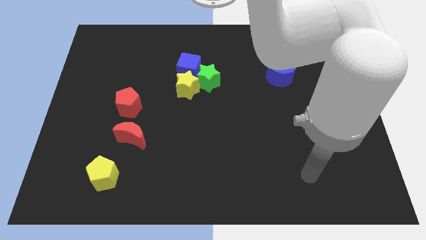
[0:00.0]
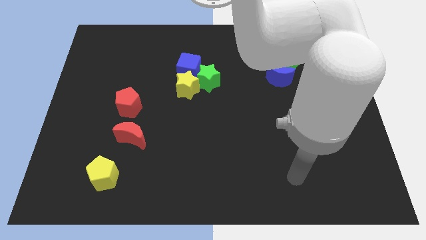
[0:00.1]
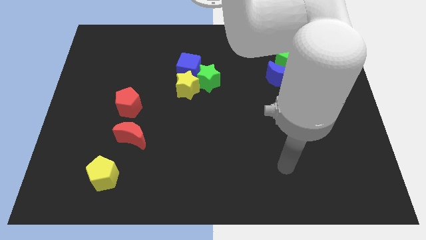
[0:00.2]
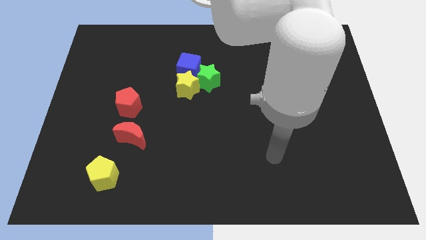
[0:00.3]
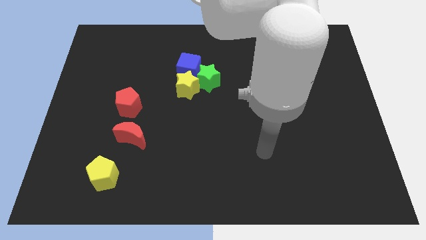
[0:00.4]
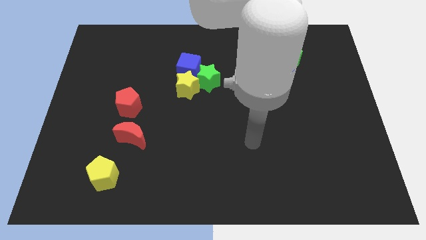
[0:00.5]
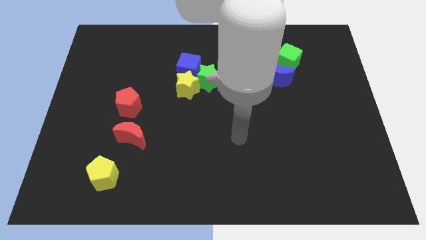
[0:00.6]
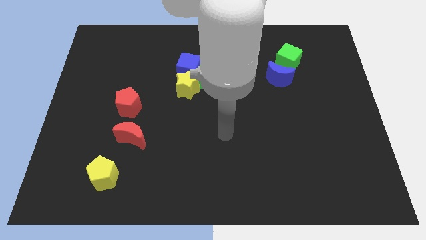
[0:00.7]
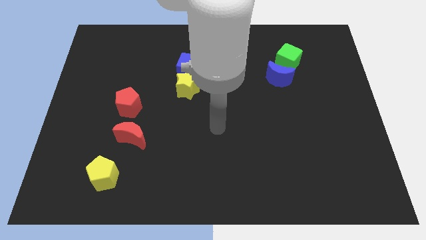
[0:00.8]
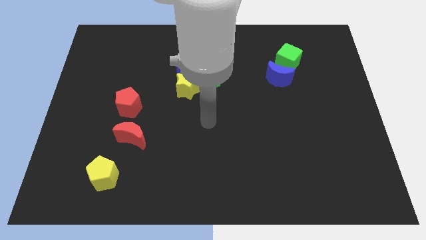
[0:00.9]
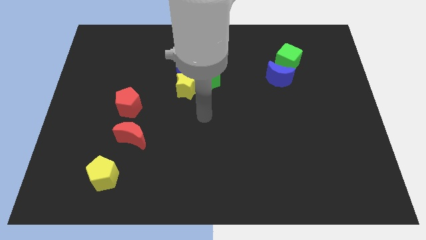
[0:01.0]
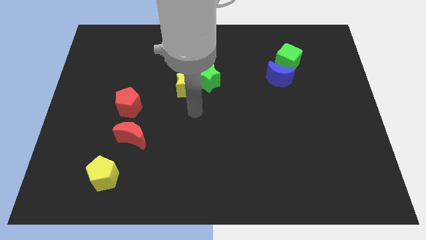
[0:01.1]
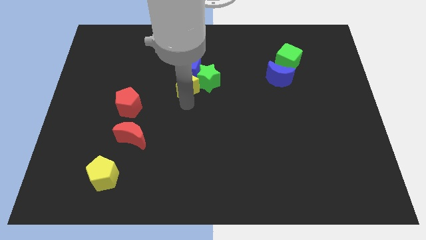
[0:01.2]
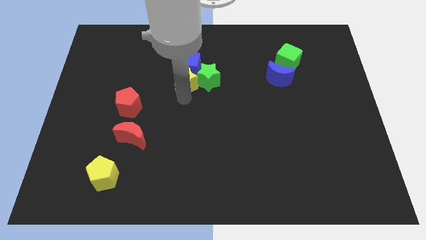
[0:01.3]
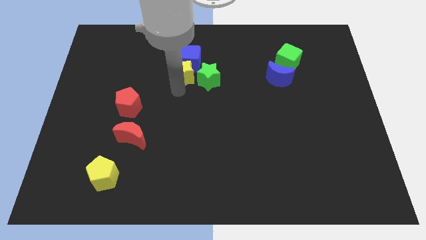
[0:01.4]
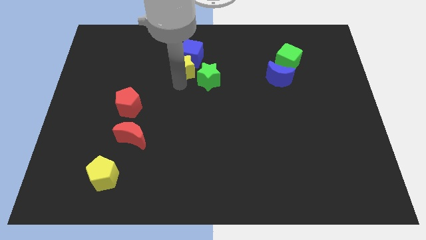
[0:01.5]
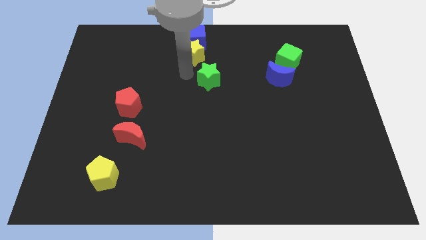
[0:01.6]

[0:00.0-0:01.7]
pull the green star apart from the yellow star and blue cube

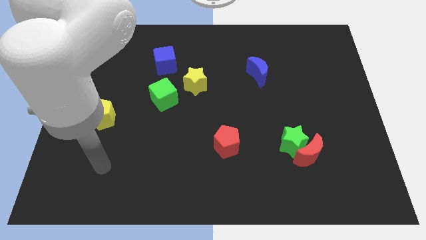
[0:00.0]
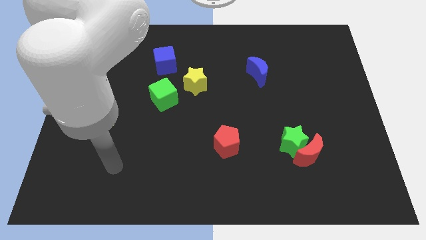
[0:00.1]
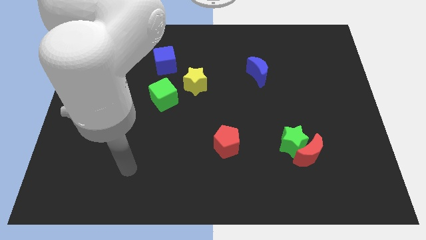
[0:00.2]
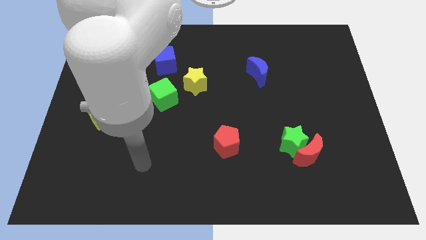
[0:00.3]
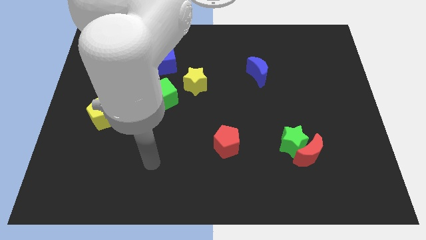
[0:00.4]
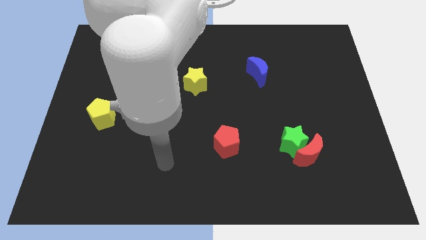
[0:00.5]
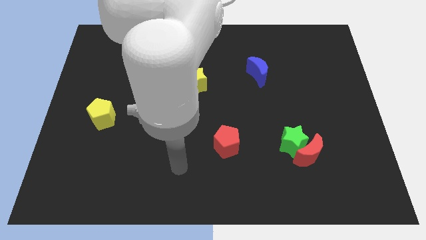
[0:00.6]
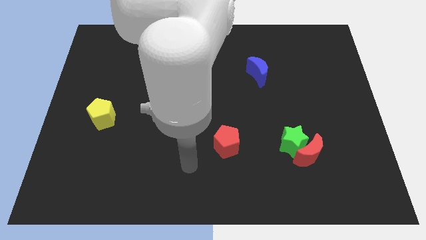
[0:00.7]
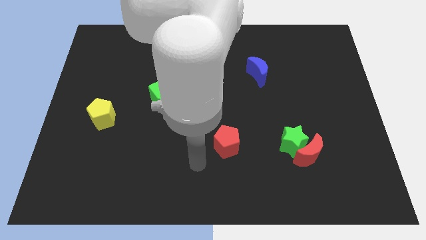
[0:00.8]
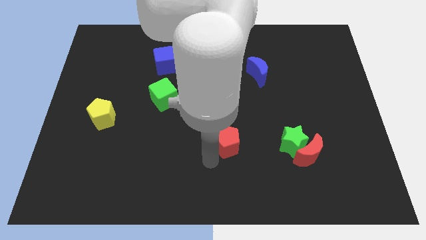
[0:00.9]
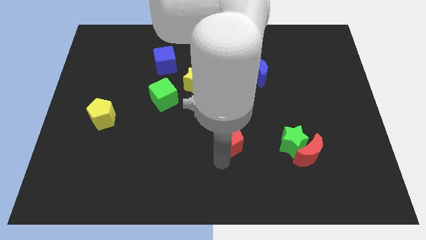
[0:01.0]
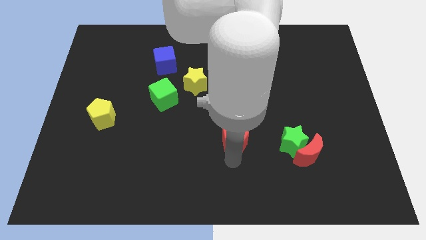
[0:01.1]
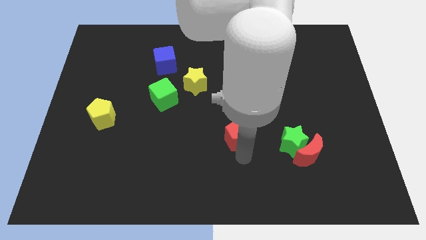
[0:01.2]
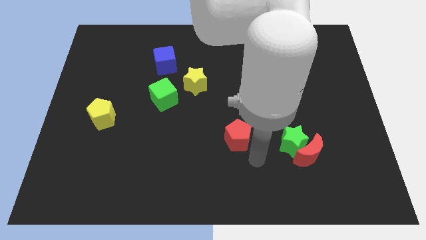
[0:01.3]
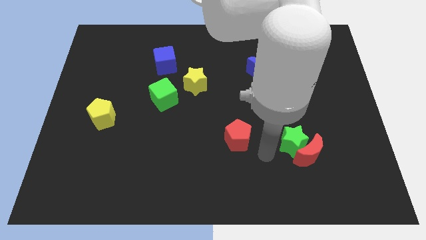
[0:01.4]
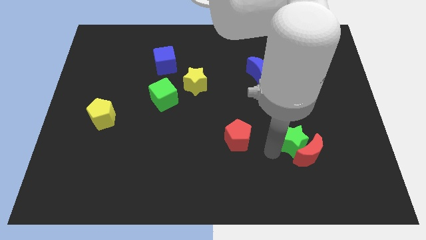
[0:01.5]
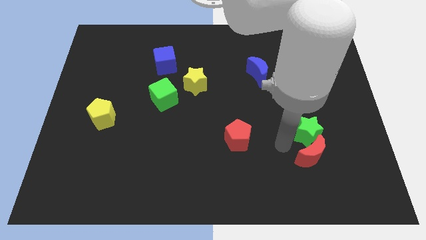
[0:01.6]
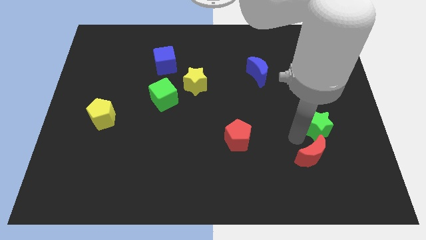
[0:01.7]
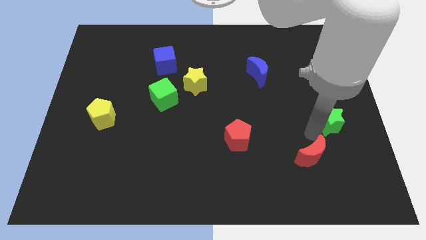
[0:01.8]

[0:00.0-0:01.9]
pull the red moon apart from the green star

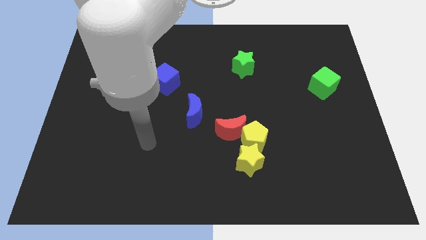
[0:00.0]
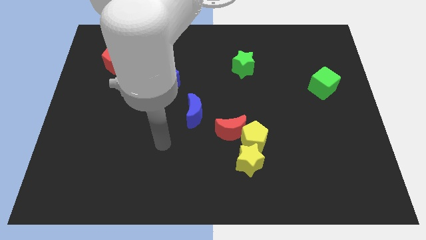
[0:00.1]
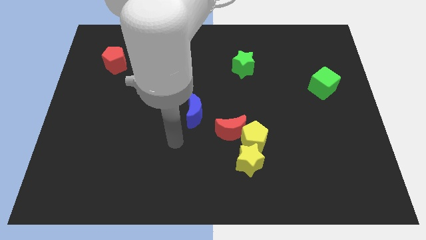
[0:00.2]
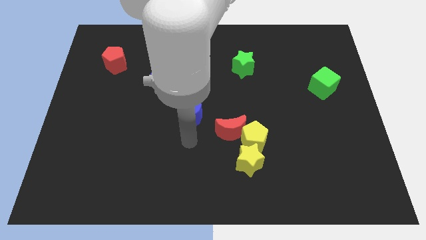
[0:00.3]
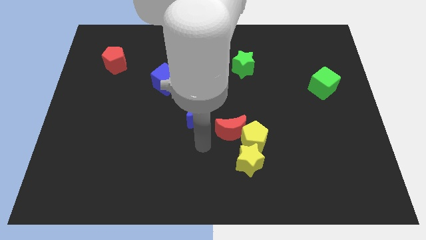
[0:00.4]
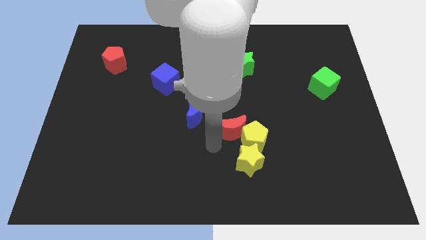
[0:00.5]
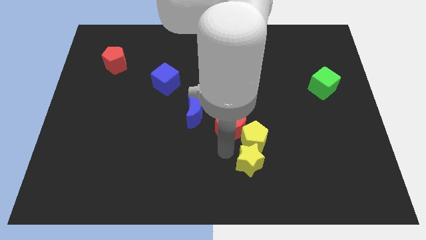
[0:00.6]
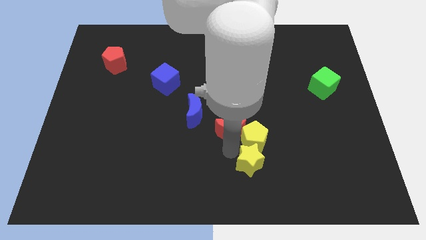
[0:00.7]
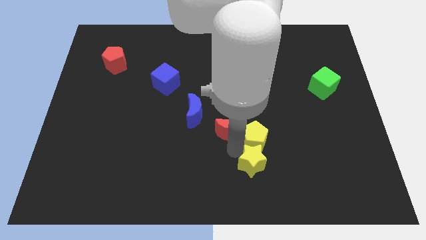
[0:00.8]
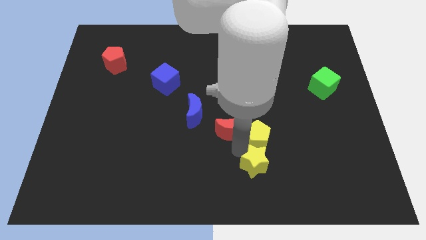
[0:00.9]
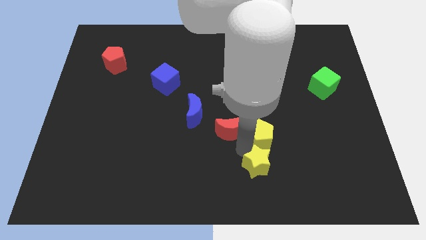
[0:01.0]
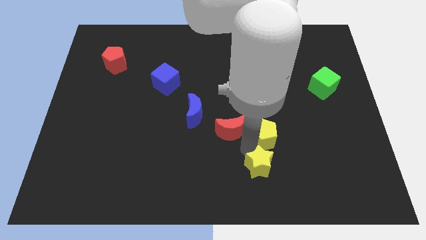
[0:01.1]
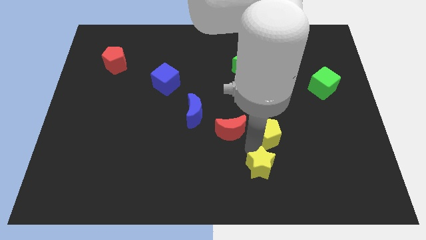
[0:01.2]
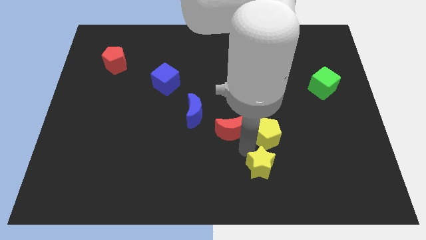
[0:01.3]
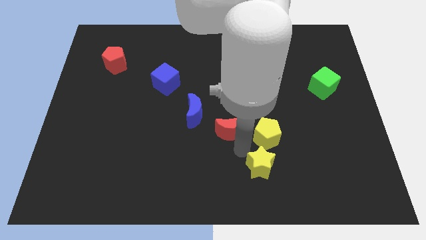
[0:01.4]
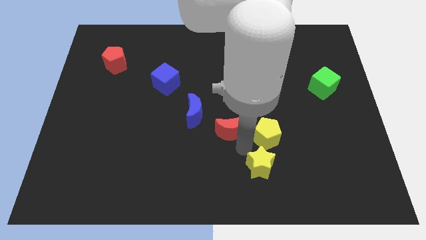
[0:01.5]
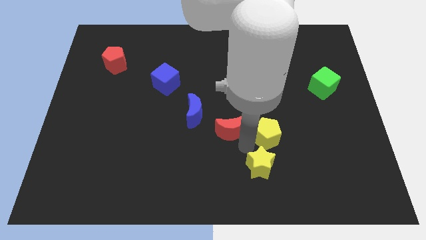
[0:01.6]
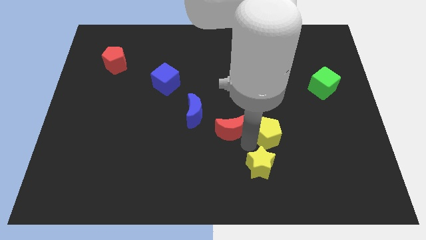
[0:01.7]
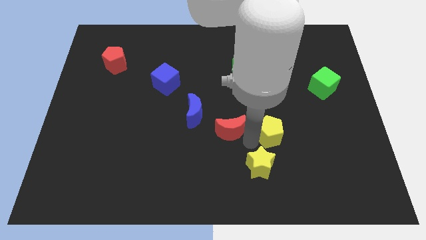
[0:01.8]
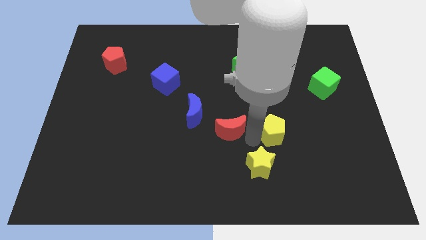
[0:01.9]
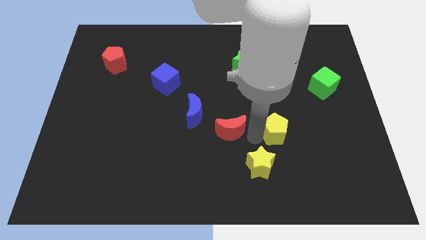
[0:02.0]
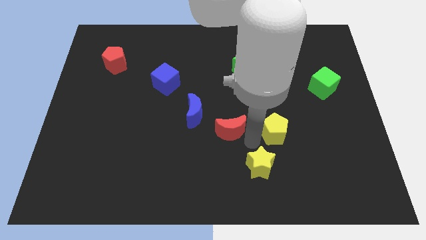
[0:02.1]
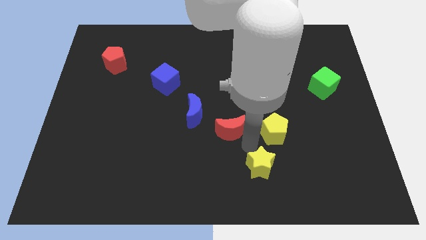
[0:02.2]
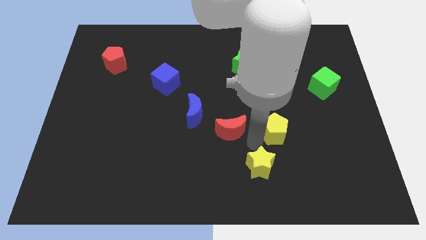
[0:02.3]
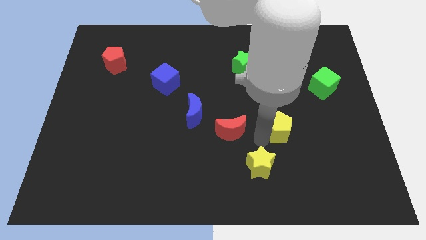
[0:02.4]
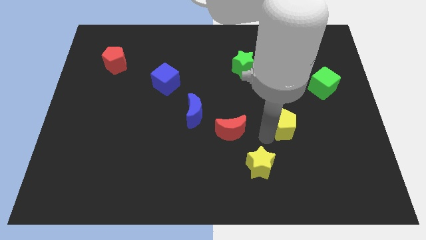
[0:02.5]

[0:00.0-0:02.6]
move the yellow pentagon away from the red moon and yellow star

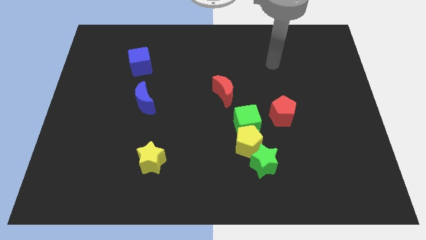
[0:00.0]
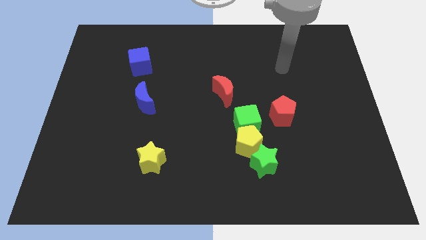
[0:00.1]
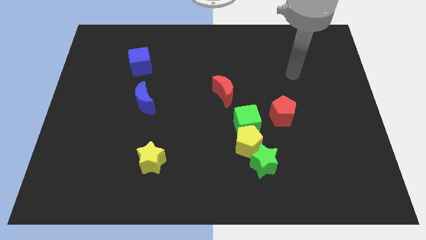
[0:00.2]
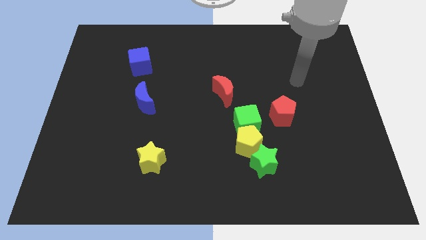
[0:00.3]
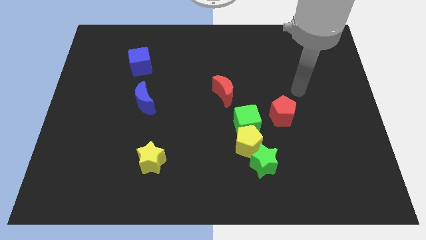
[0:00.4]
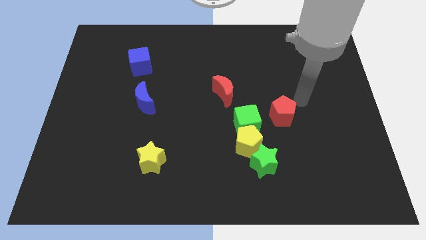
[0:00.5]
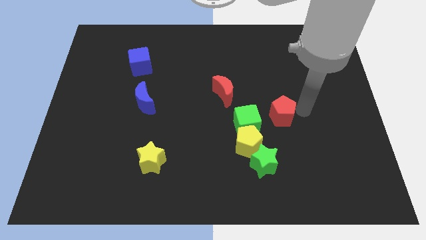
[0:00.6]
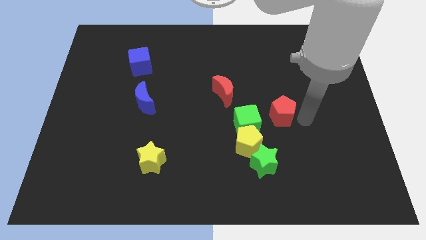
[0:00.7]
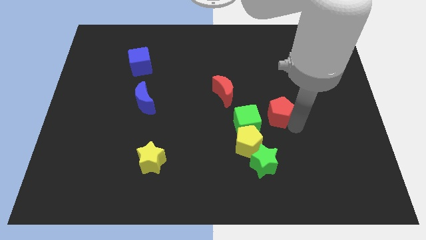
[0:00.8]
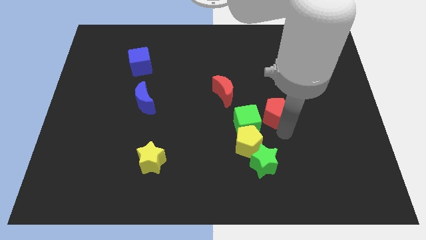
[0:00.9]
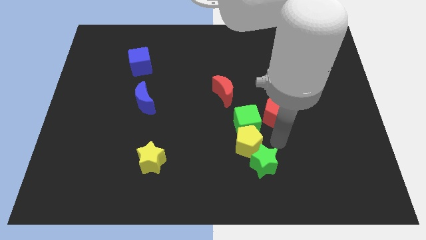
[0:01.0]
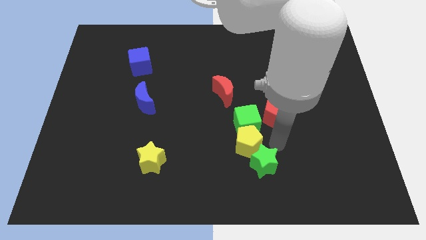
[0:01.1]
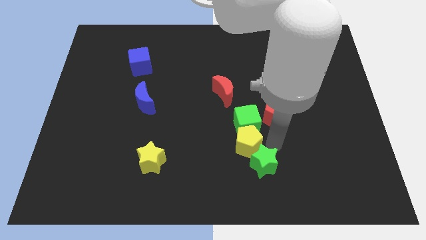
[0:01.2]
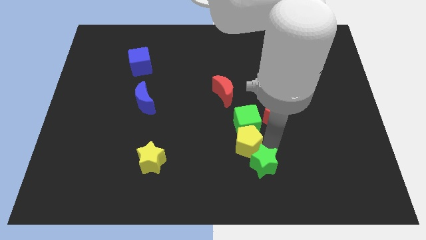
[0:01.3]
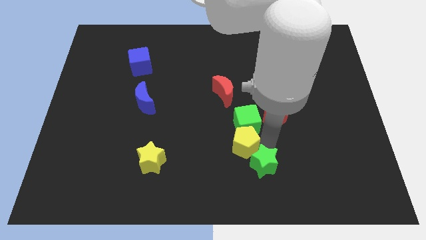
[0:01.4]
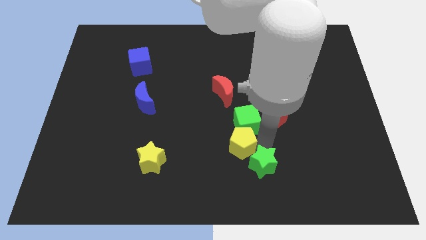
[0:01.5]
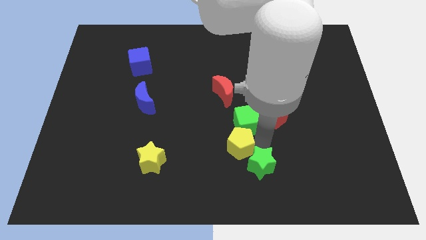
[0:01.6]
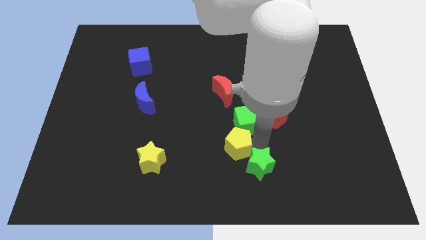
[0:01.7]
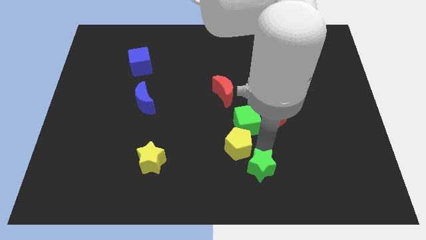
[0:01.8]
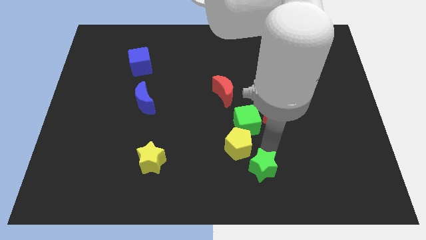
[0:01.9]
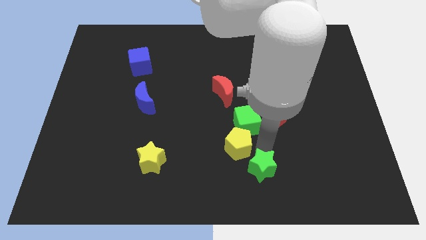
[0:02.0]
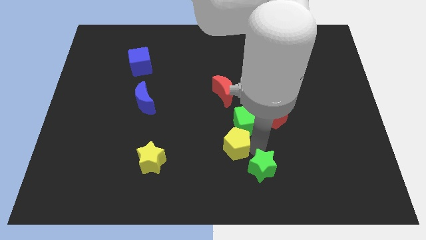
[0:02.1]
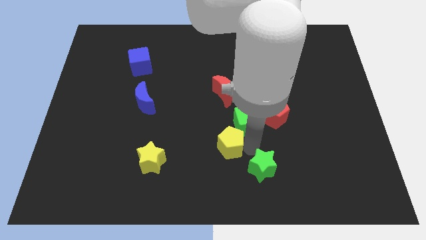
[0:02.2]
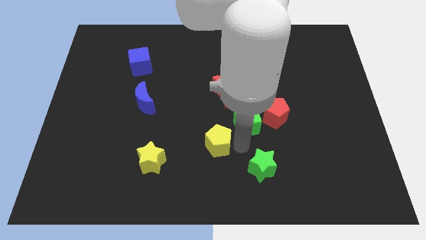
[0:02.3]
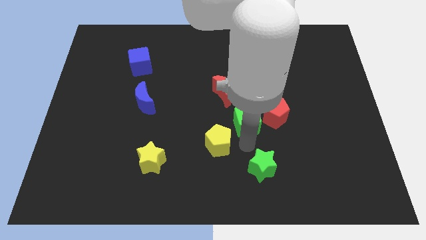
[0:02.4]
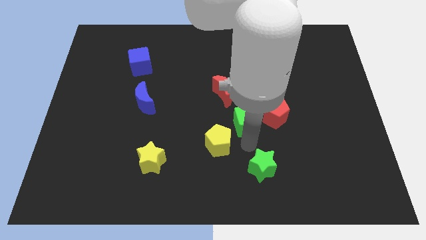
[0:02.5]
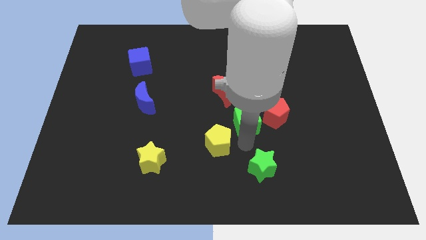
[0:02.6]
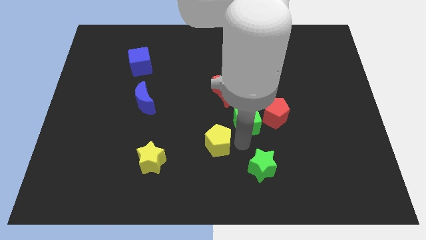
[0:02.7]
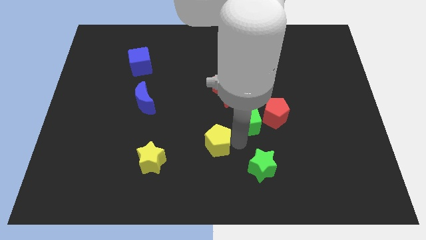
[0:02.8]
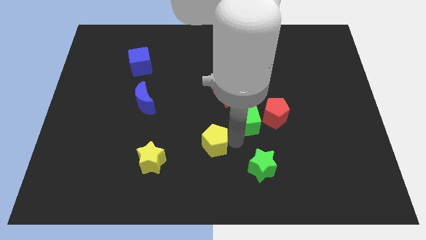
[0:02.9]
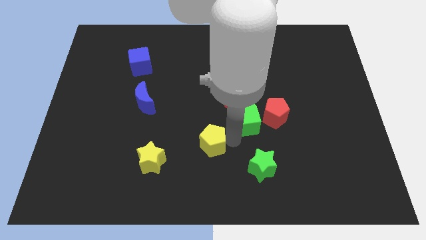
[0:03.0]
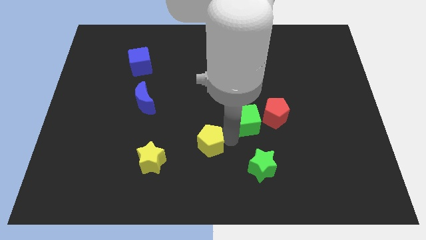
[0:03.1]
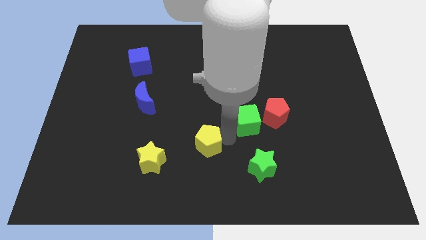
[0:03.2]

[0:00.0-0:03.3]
move the yellow pentagon away from the green cube and green star
